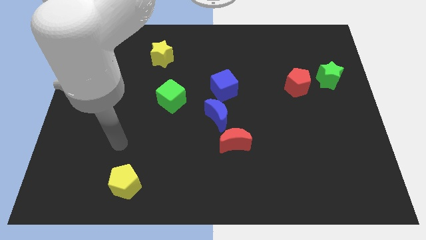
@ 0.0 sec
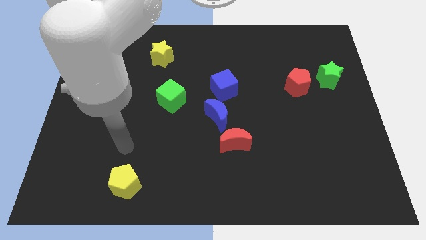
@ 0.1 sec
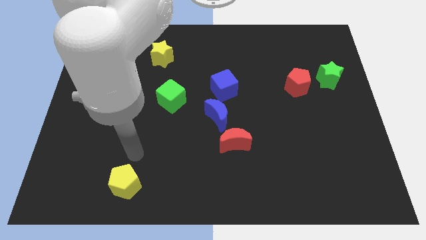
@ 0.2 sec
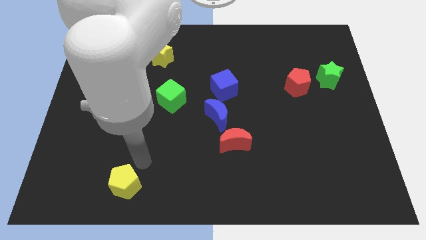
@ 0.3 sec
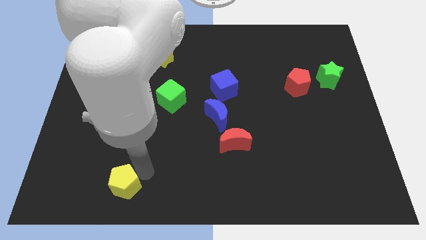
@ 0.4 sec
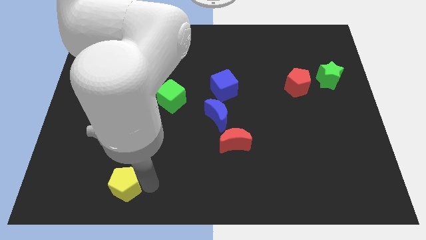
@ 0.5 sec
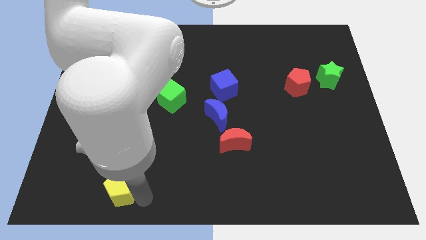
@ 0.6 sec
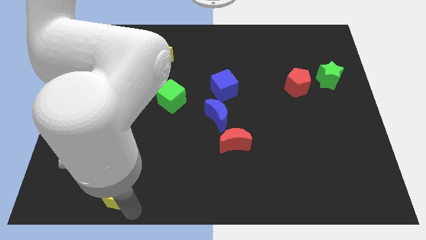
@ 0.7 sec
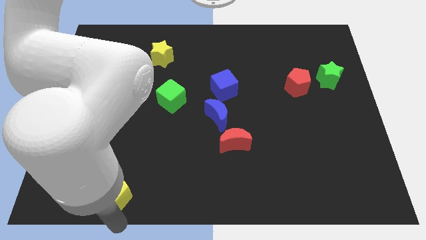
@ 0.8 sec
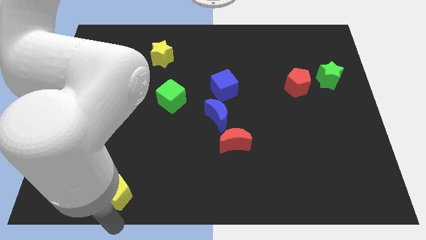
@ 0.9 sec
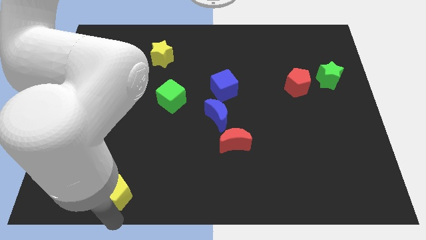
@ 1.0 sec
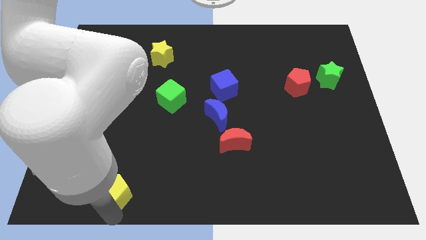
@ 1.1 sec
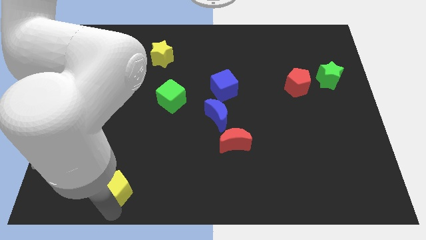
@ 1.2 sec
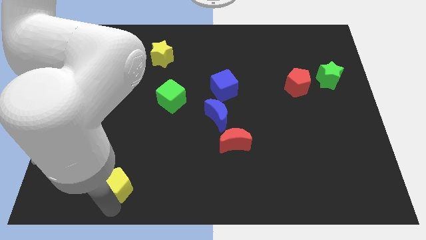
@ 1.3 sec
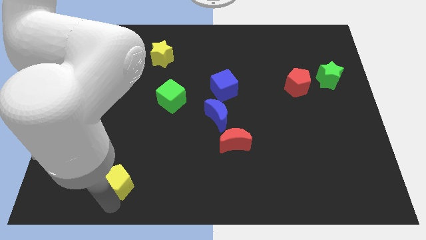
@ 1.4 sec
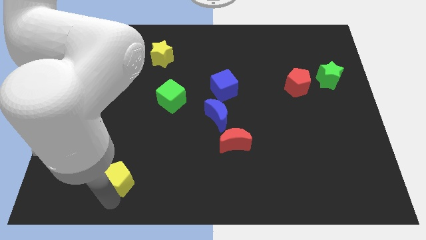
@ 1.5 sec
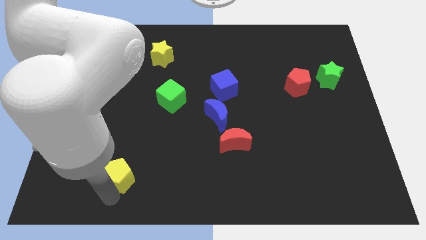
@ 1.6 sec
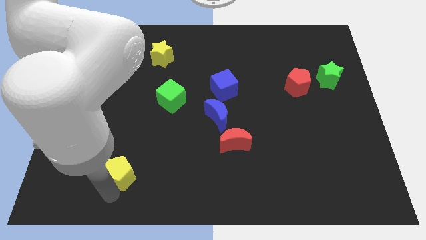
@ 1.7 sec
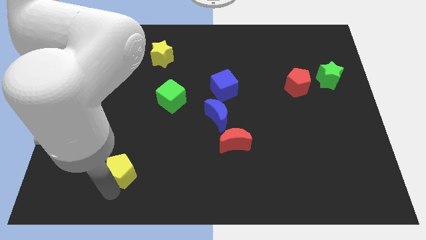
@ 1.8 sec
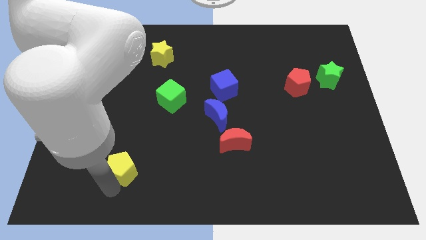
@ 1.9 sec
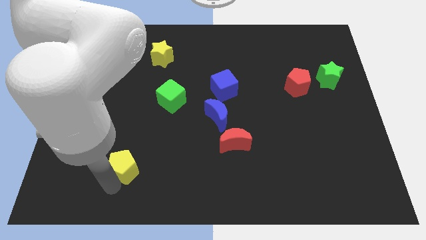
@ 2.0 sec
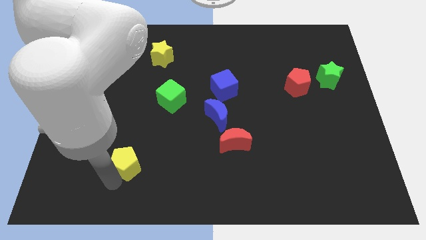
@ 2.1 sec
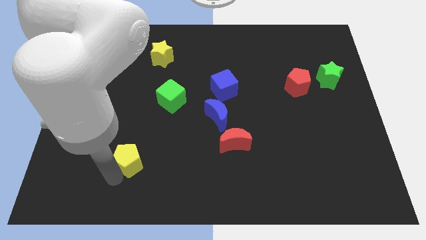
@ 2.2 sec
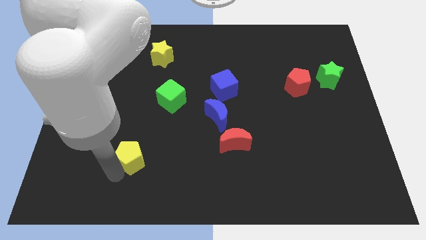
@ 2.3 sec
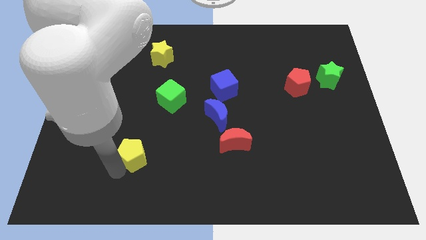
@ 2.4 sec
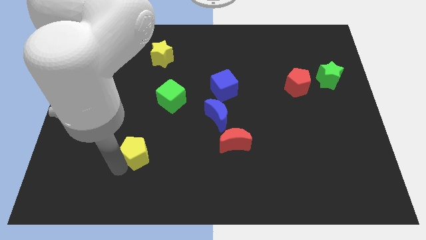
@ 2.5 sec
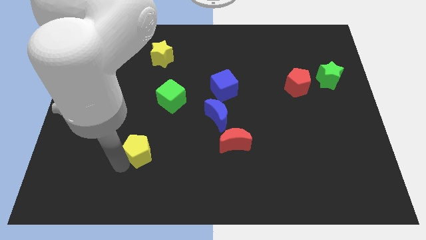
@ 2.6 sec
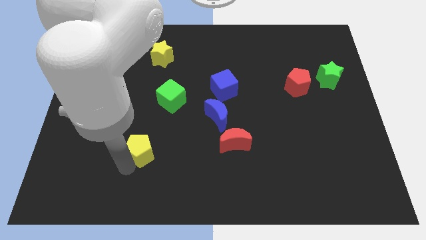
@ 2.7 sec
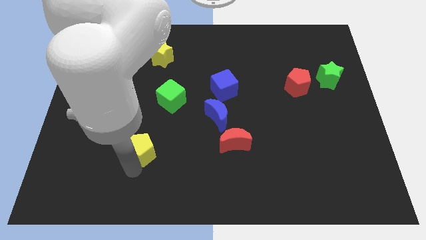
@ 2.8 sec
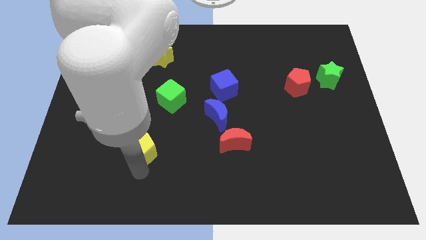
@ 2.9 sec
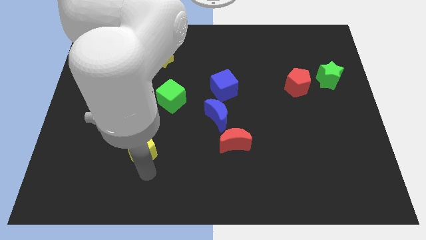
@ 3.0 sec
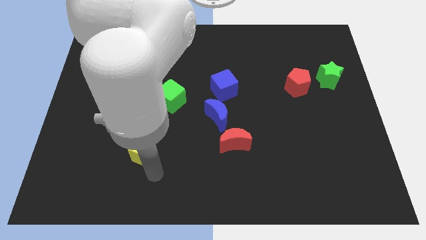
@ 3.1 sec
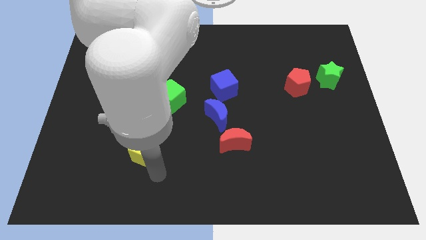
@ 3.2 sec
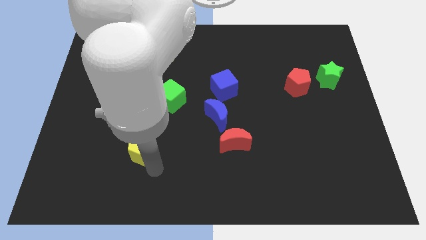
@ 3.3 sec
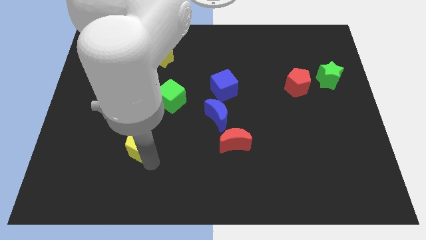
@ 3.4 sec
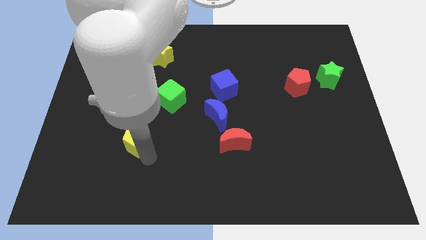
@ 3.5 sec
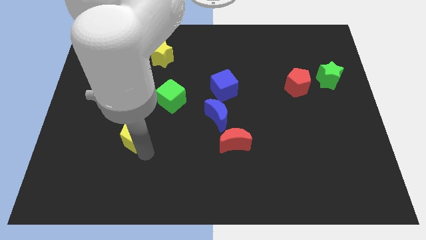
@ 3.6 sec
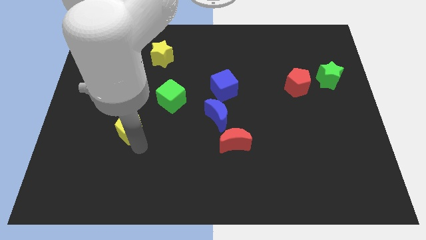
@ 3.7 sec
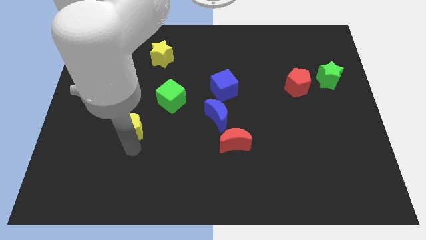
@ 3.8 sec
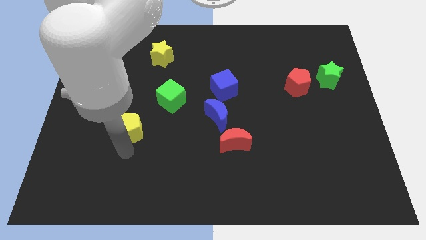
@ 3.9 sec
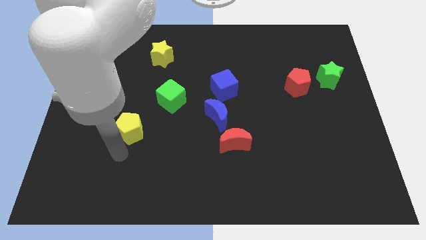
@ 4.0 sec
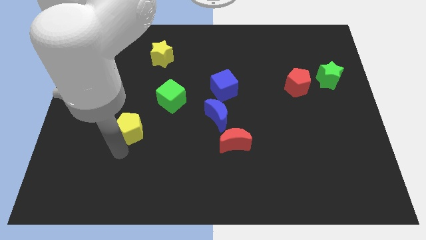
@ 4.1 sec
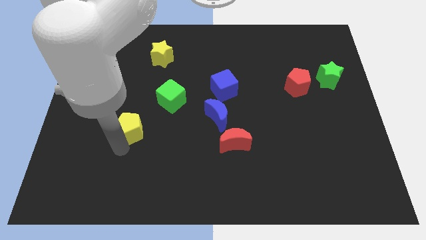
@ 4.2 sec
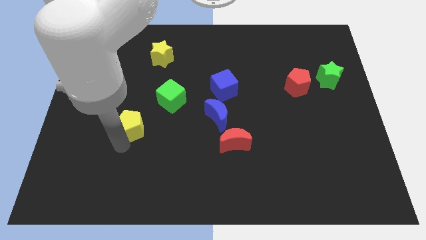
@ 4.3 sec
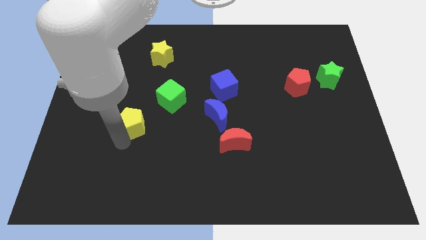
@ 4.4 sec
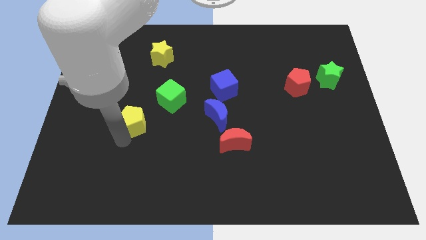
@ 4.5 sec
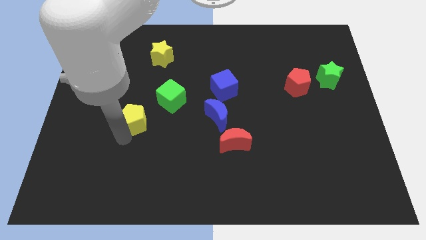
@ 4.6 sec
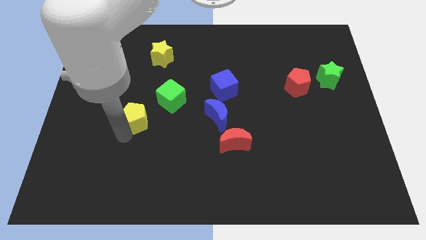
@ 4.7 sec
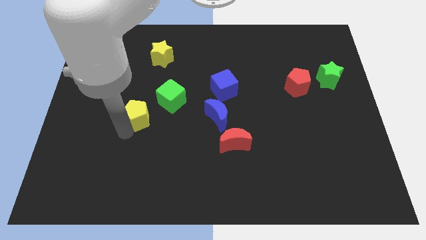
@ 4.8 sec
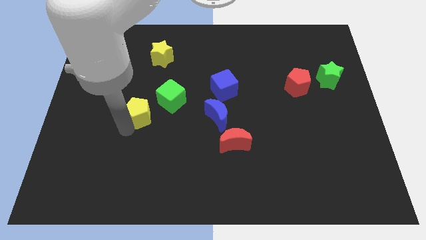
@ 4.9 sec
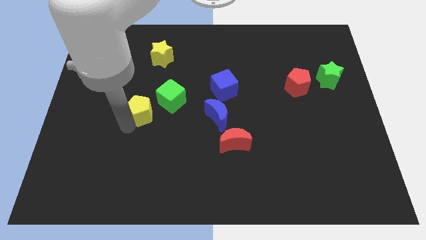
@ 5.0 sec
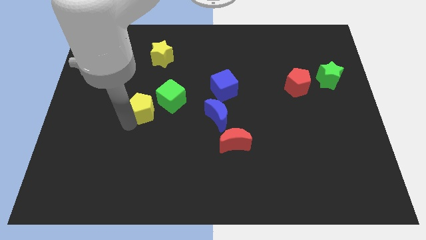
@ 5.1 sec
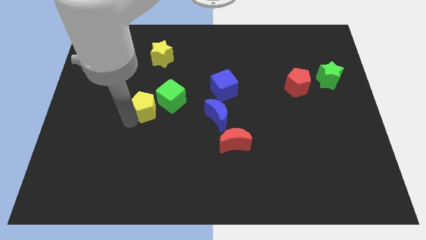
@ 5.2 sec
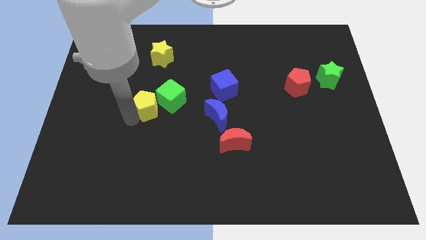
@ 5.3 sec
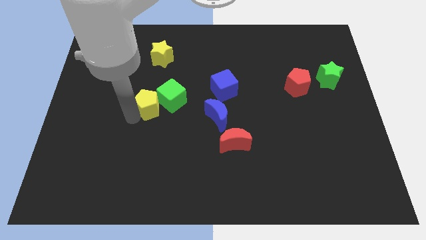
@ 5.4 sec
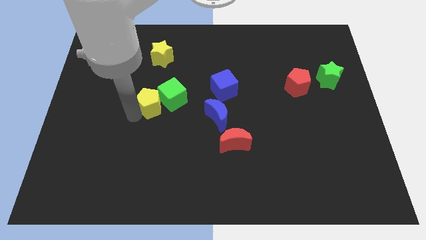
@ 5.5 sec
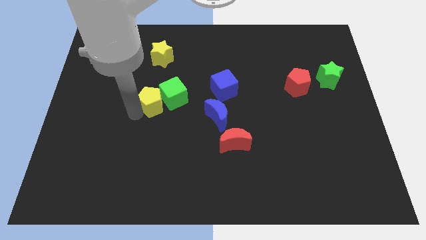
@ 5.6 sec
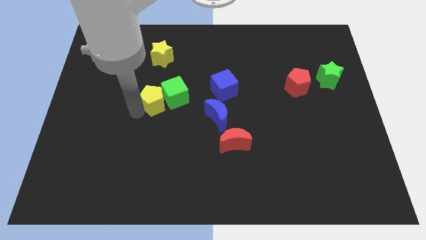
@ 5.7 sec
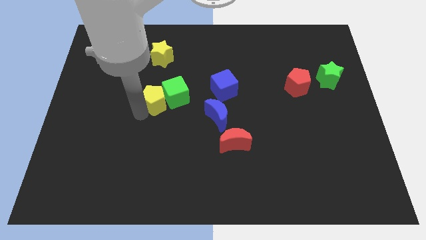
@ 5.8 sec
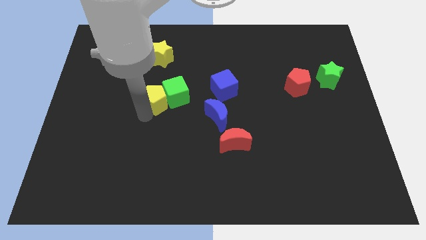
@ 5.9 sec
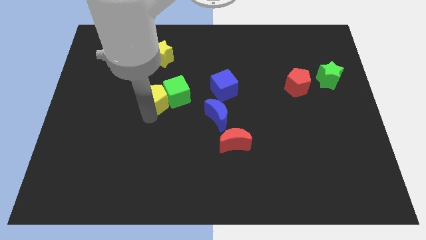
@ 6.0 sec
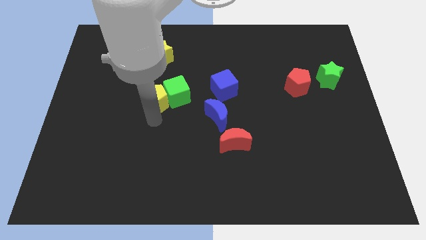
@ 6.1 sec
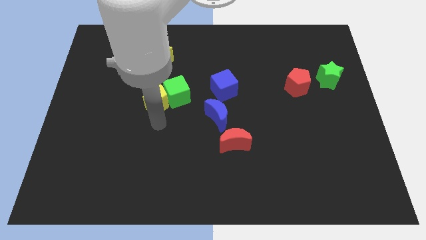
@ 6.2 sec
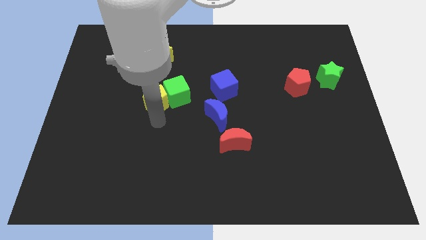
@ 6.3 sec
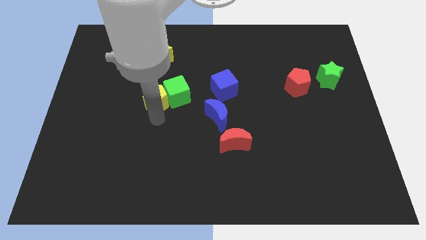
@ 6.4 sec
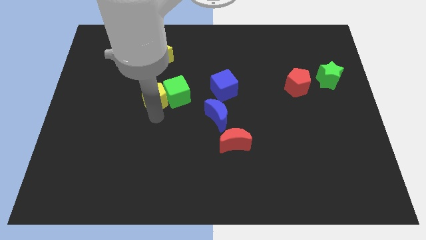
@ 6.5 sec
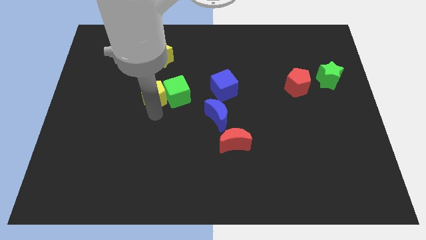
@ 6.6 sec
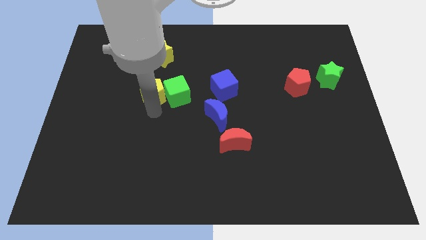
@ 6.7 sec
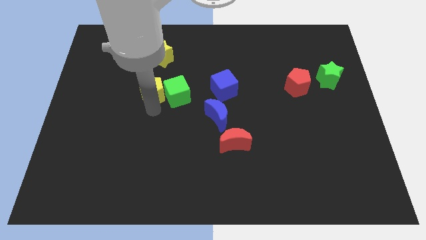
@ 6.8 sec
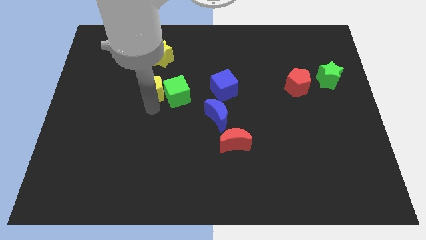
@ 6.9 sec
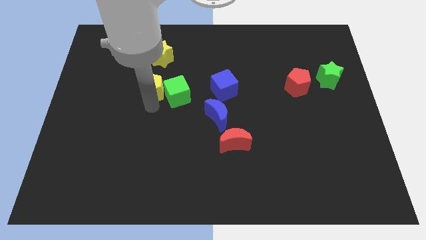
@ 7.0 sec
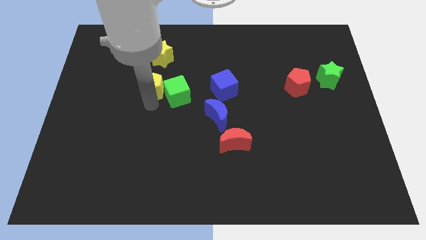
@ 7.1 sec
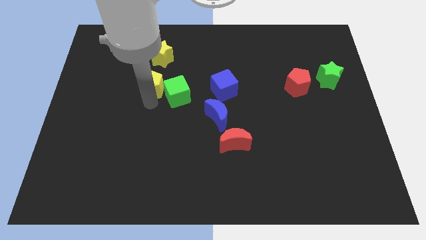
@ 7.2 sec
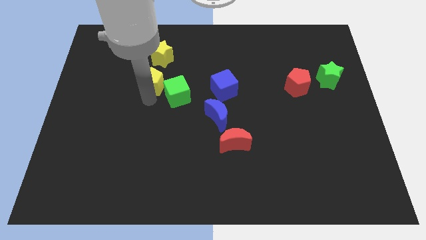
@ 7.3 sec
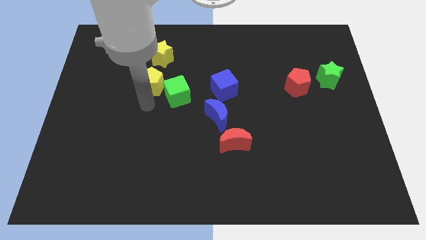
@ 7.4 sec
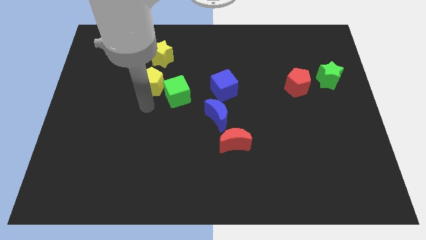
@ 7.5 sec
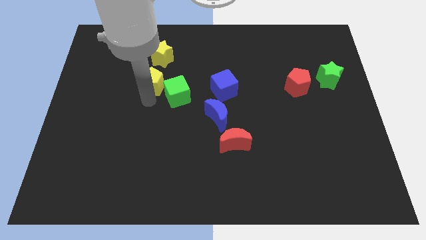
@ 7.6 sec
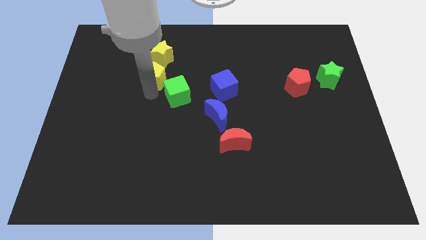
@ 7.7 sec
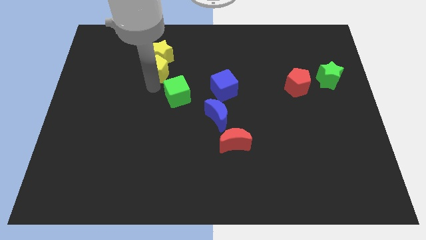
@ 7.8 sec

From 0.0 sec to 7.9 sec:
push the yellow pentagon next to the yellow star
